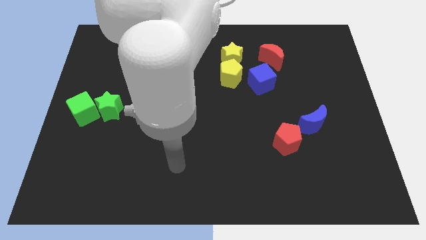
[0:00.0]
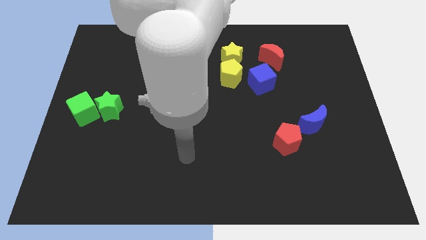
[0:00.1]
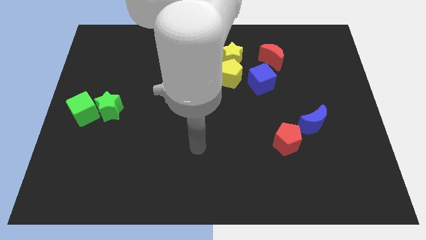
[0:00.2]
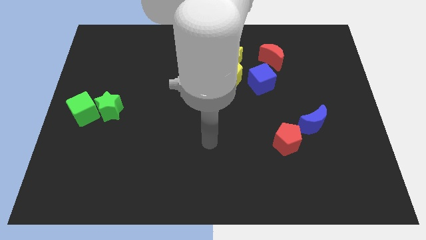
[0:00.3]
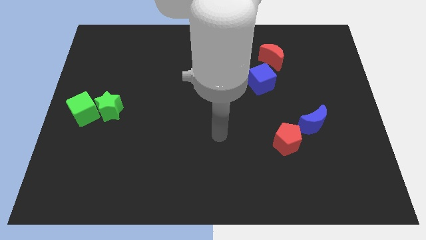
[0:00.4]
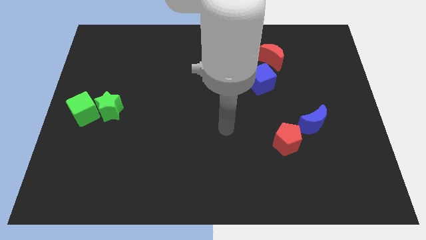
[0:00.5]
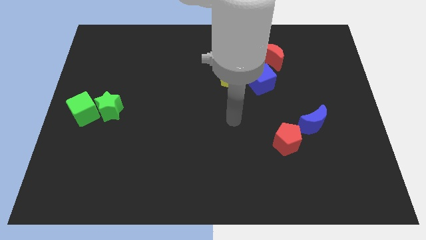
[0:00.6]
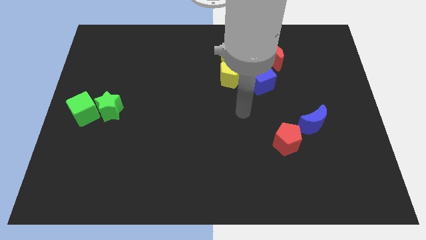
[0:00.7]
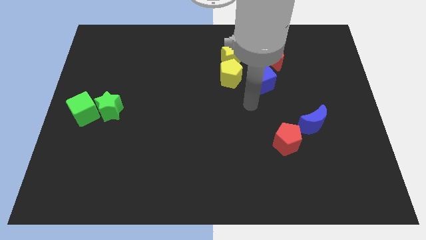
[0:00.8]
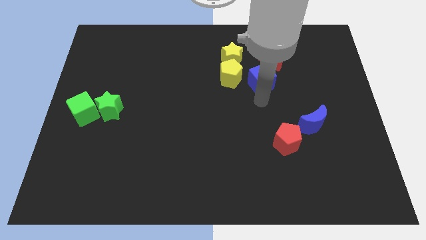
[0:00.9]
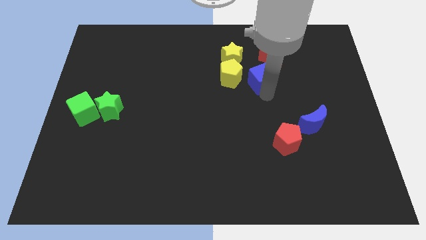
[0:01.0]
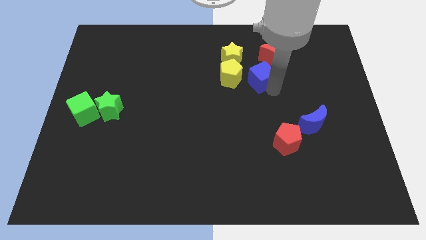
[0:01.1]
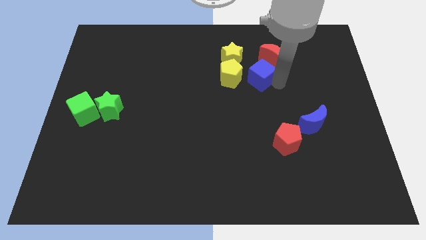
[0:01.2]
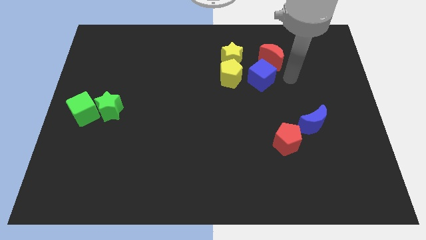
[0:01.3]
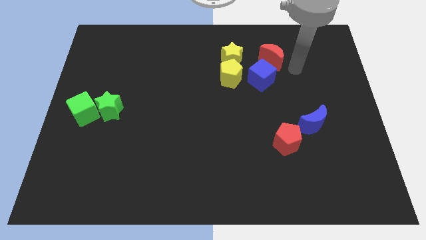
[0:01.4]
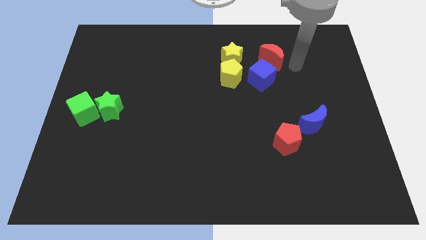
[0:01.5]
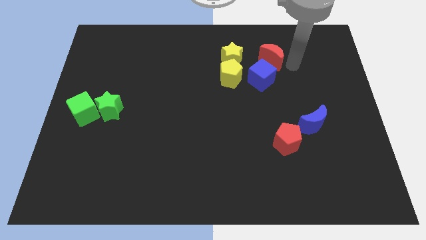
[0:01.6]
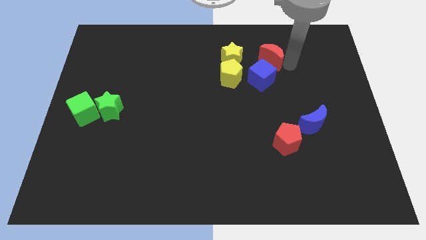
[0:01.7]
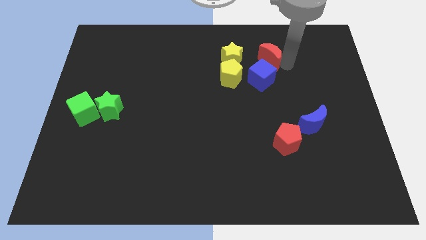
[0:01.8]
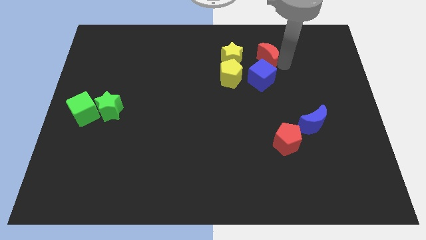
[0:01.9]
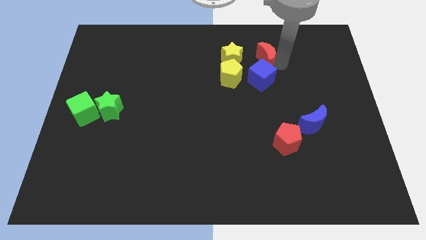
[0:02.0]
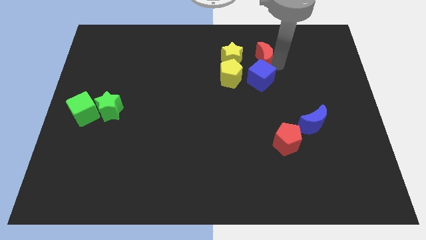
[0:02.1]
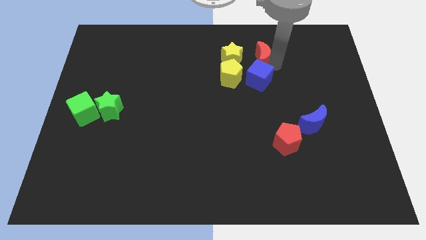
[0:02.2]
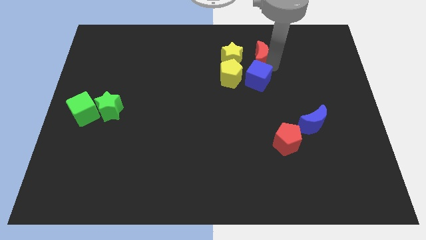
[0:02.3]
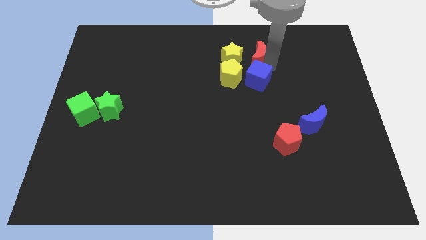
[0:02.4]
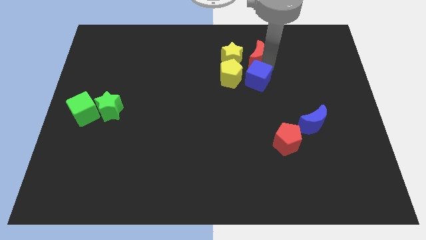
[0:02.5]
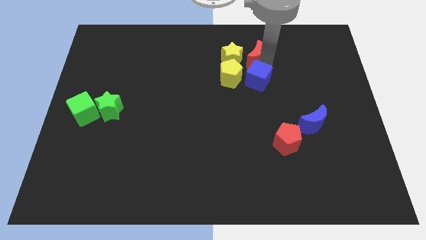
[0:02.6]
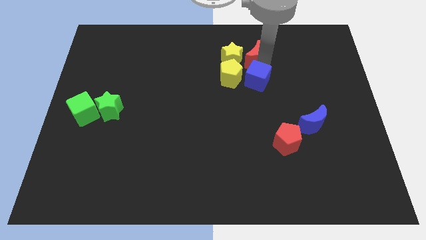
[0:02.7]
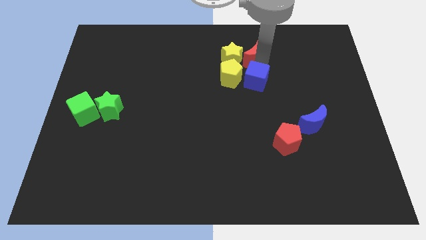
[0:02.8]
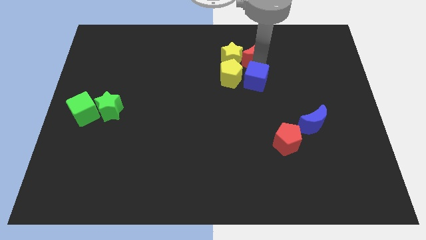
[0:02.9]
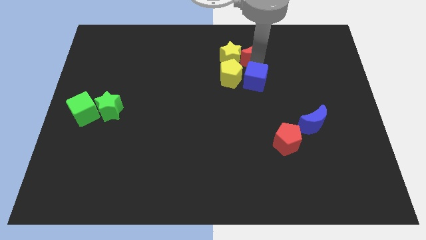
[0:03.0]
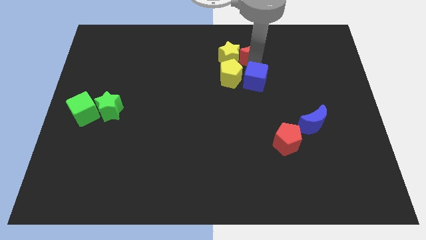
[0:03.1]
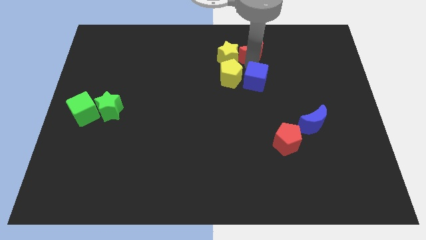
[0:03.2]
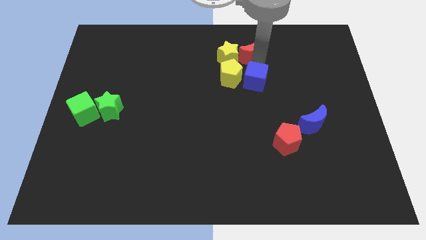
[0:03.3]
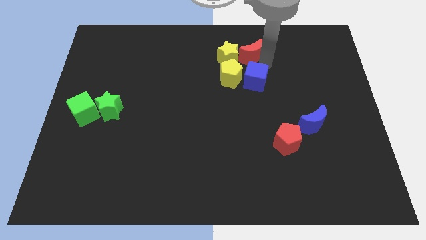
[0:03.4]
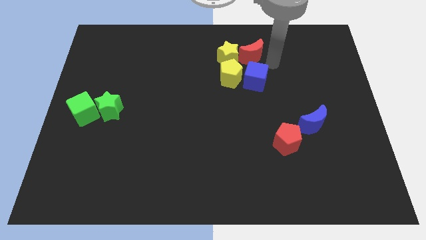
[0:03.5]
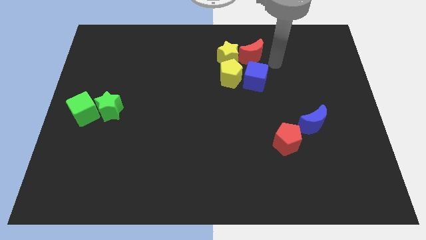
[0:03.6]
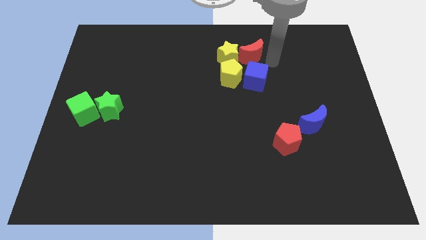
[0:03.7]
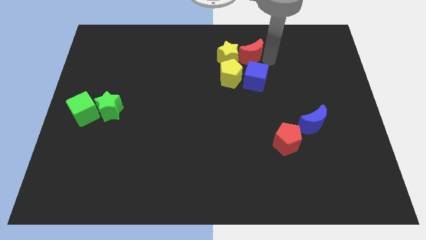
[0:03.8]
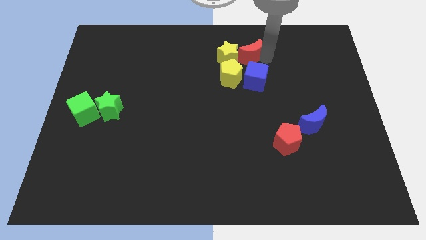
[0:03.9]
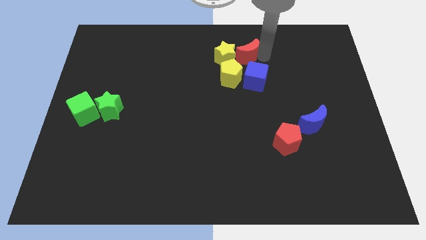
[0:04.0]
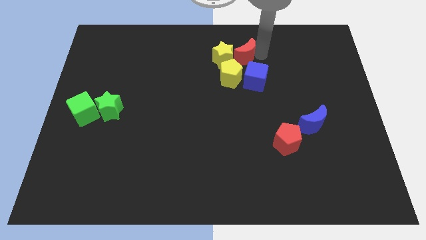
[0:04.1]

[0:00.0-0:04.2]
move the red moon left a little

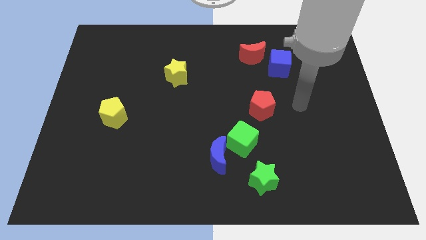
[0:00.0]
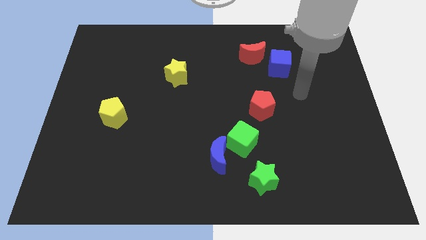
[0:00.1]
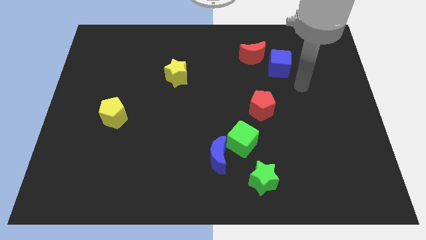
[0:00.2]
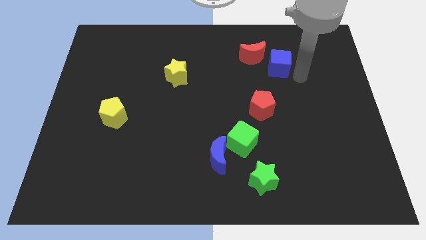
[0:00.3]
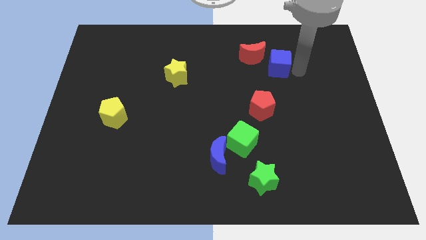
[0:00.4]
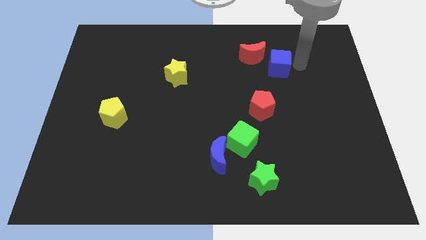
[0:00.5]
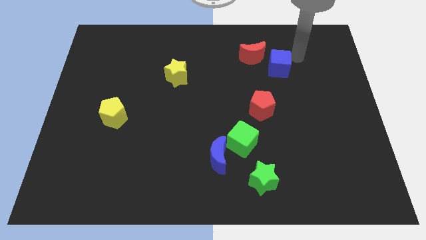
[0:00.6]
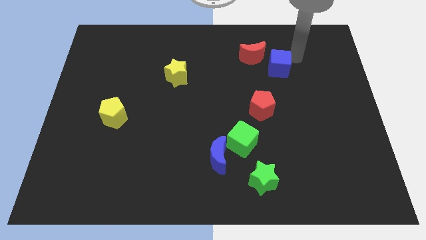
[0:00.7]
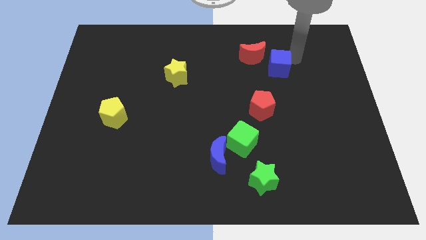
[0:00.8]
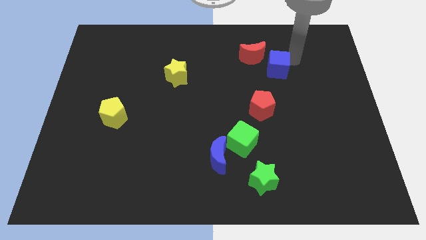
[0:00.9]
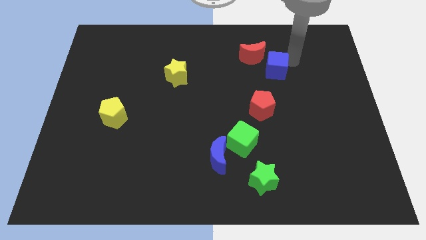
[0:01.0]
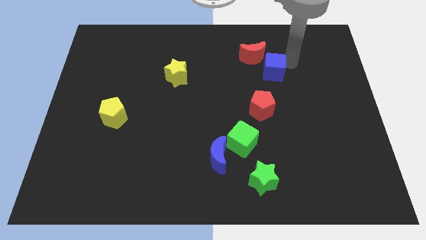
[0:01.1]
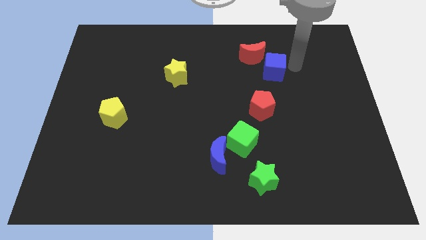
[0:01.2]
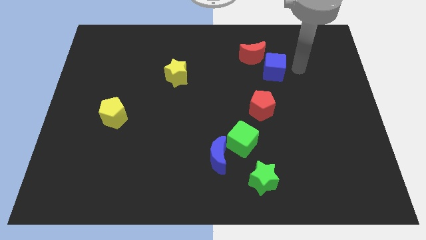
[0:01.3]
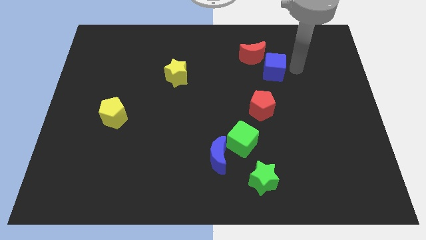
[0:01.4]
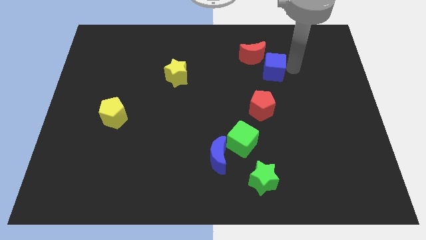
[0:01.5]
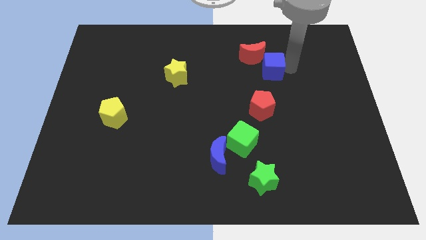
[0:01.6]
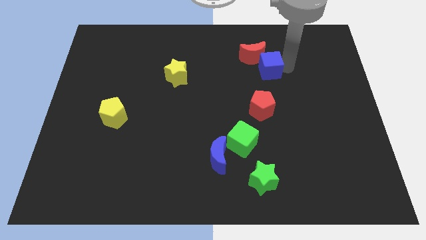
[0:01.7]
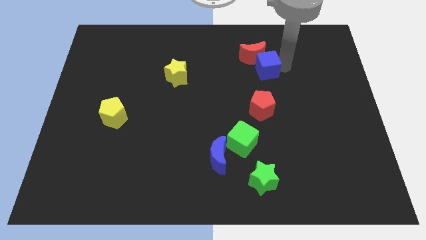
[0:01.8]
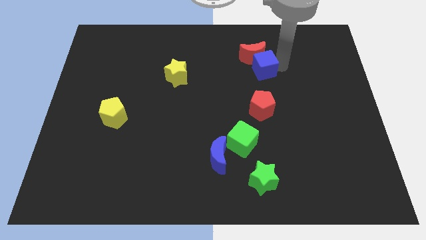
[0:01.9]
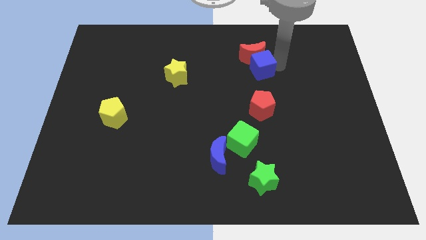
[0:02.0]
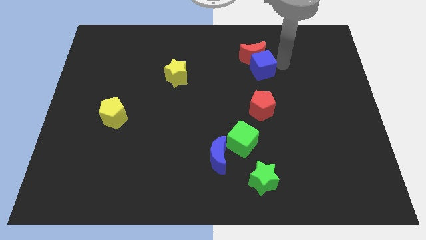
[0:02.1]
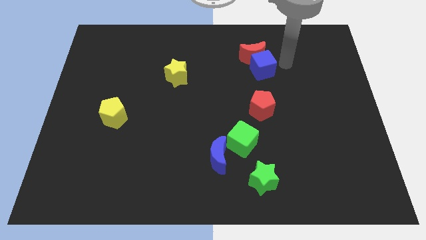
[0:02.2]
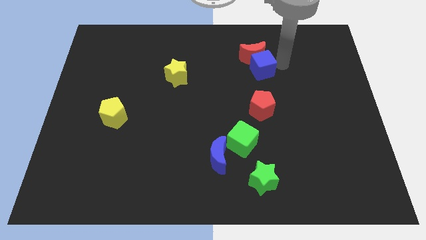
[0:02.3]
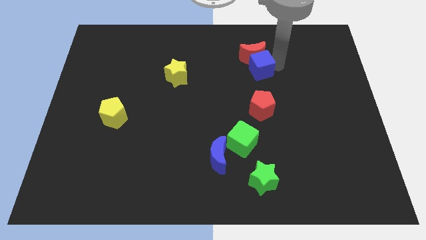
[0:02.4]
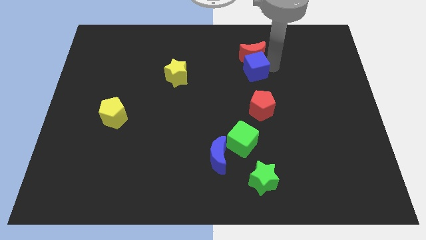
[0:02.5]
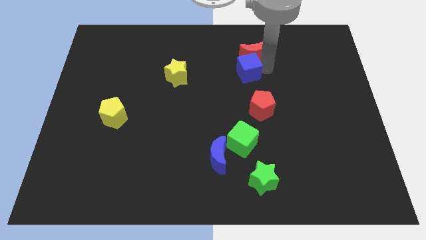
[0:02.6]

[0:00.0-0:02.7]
move the blue cube somewhat left

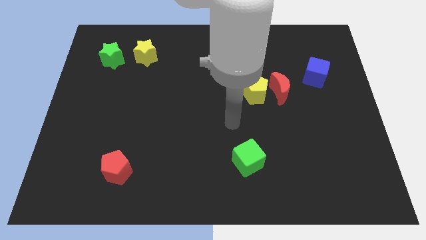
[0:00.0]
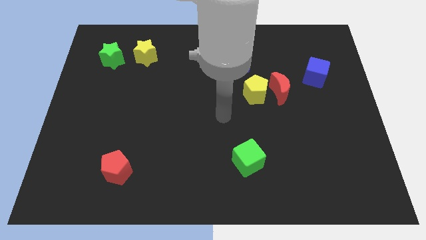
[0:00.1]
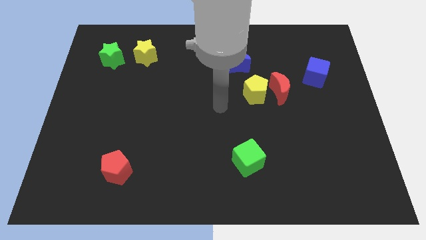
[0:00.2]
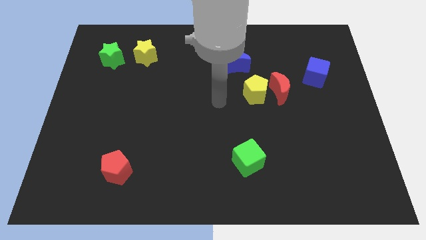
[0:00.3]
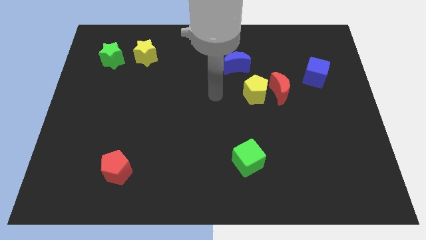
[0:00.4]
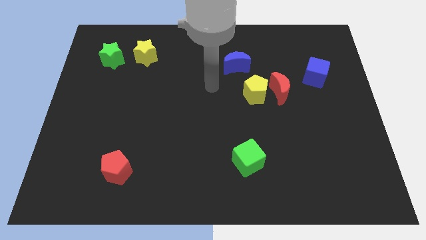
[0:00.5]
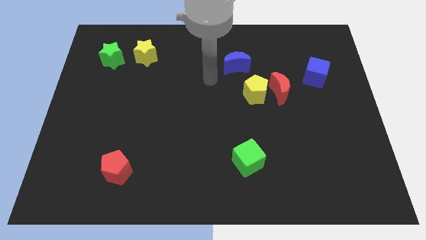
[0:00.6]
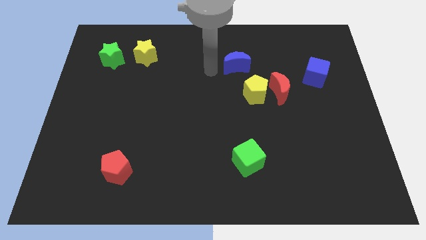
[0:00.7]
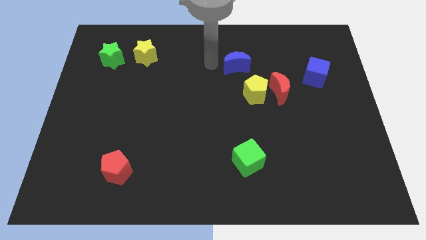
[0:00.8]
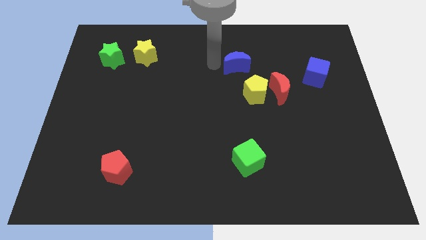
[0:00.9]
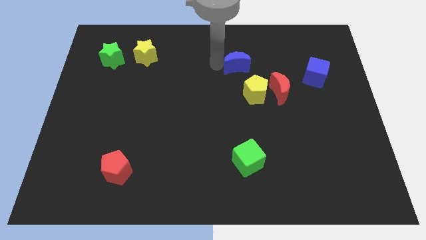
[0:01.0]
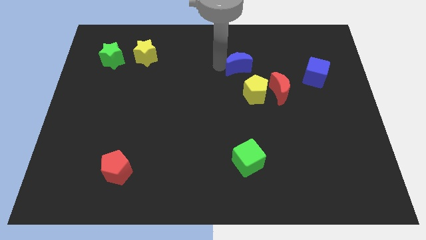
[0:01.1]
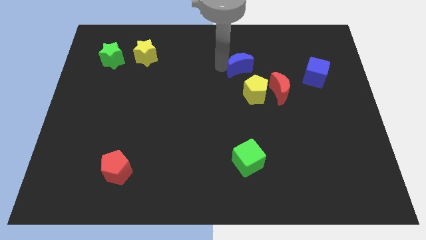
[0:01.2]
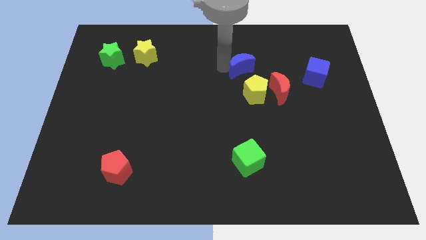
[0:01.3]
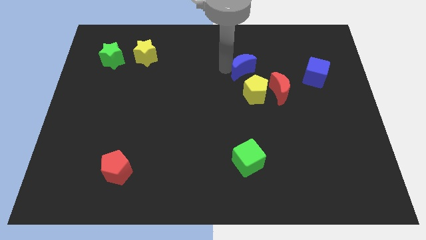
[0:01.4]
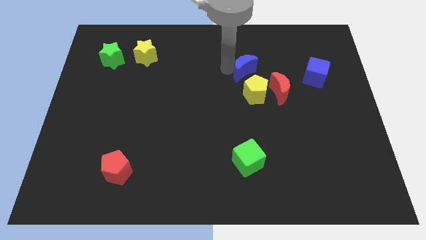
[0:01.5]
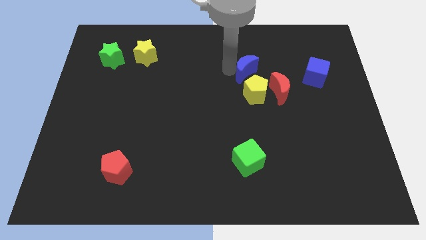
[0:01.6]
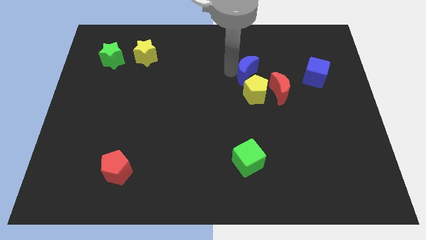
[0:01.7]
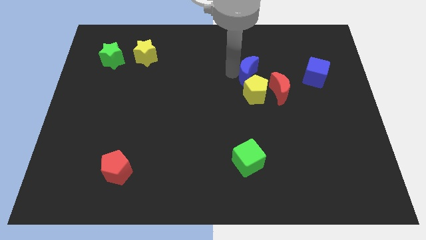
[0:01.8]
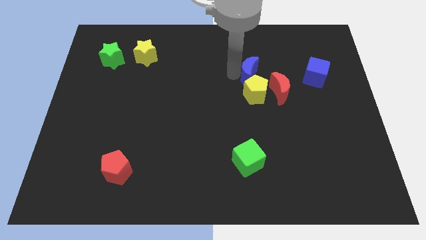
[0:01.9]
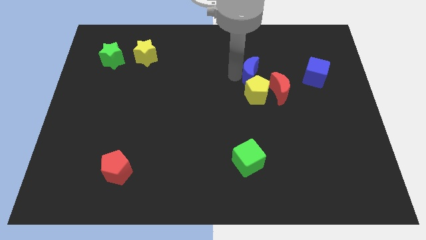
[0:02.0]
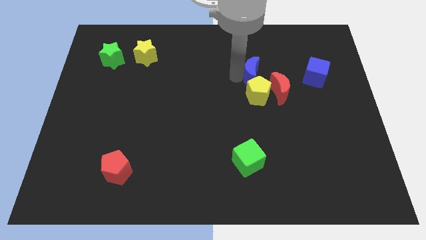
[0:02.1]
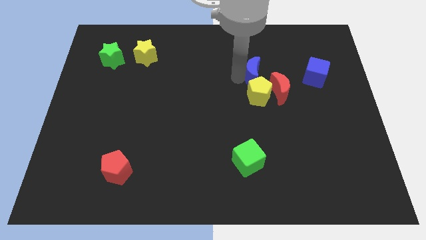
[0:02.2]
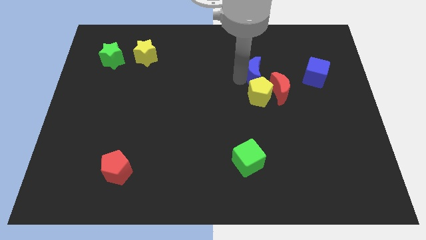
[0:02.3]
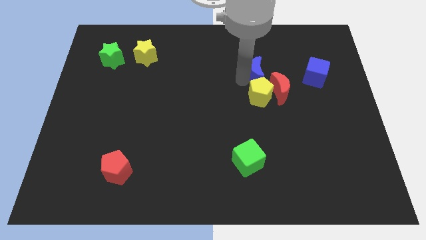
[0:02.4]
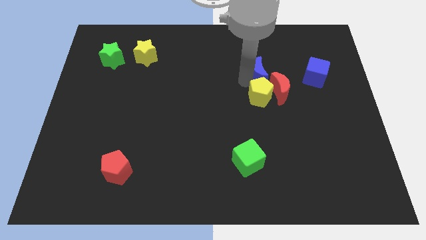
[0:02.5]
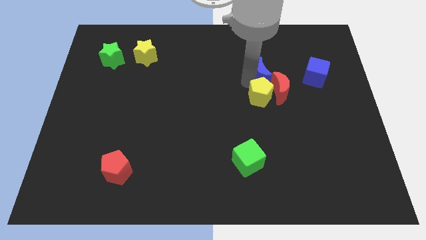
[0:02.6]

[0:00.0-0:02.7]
slide the blue moon a little bit diagonally down and right
